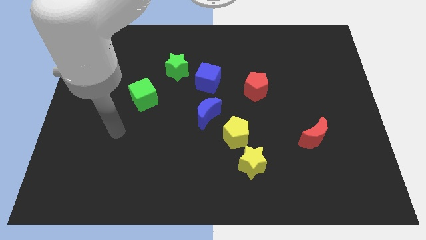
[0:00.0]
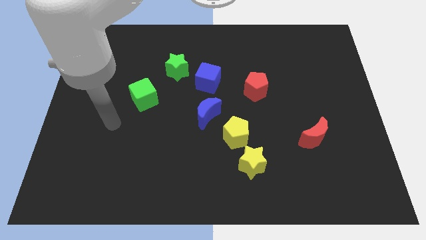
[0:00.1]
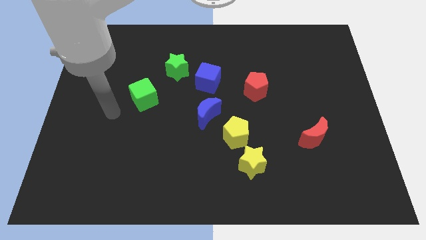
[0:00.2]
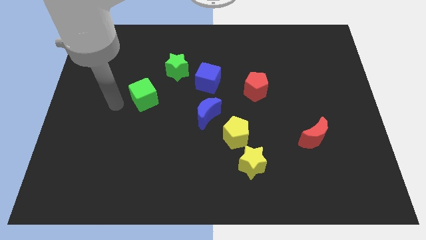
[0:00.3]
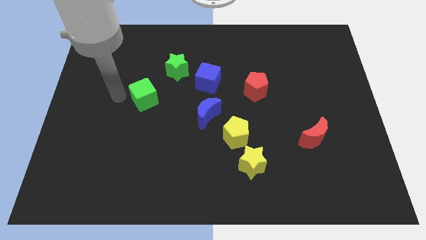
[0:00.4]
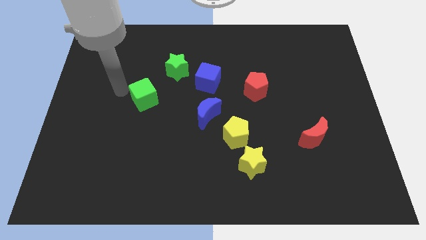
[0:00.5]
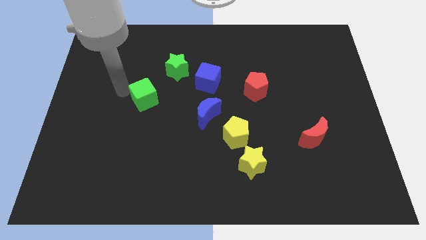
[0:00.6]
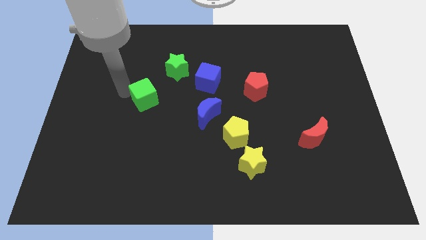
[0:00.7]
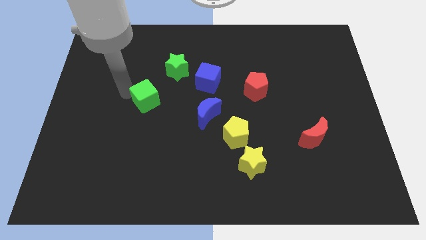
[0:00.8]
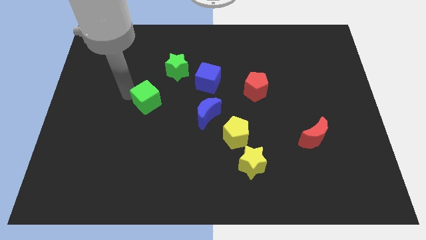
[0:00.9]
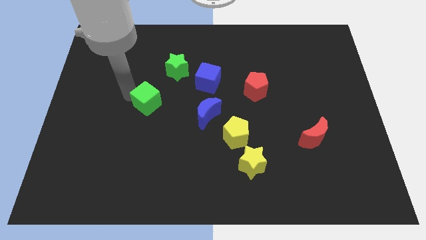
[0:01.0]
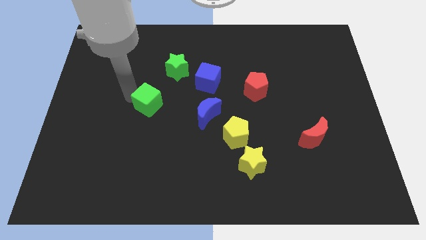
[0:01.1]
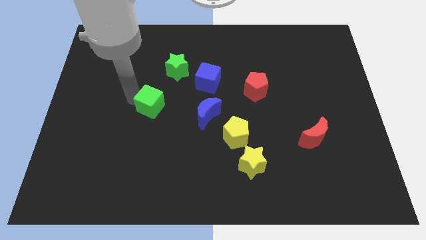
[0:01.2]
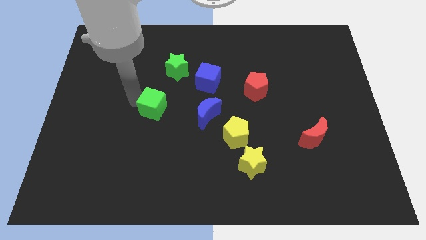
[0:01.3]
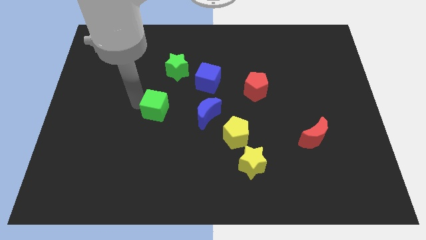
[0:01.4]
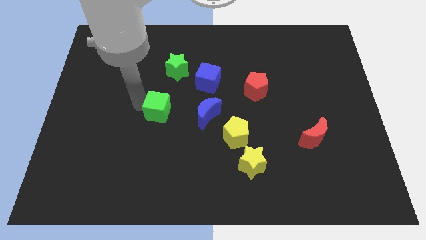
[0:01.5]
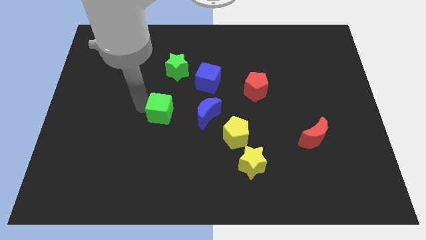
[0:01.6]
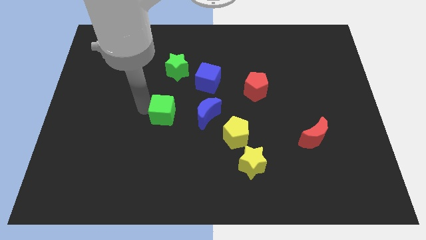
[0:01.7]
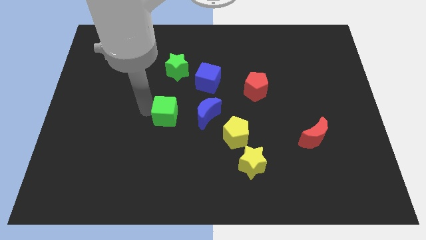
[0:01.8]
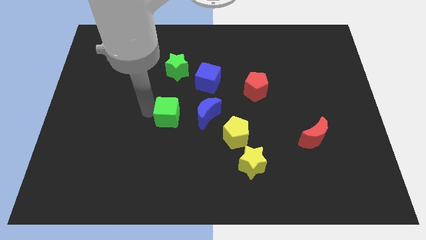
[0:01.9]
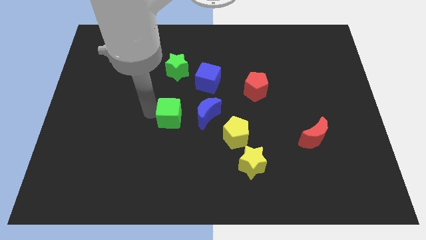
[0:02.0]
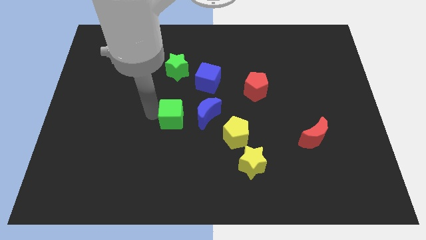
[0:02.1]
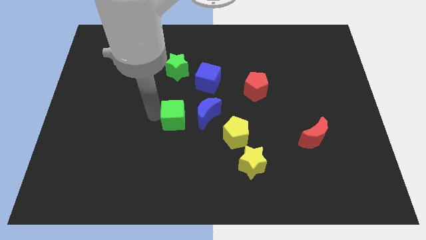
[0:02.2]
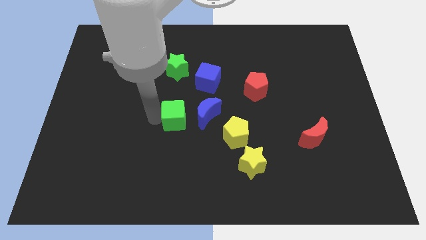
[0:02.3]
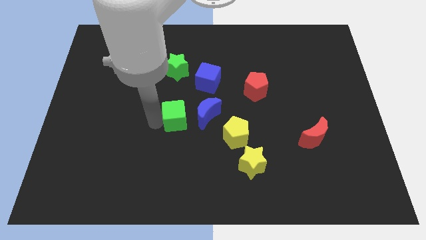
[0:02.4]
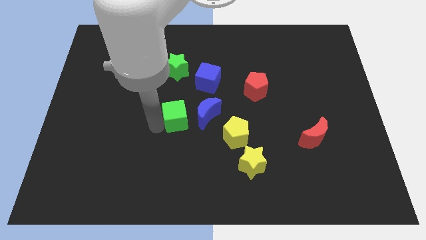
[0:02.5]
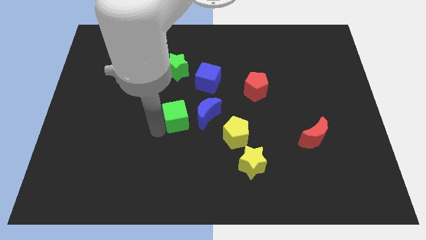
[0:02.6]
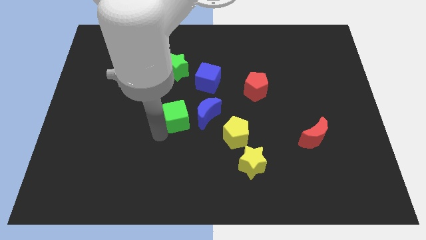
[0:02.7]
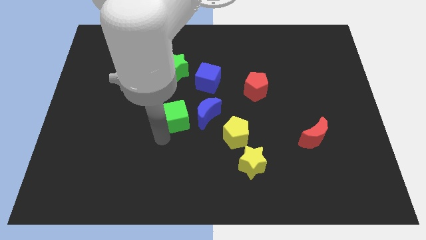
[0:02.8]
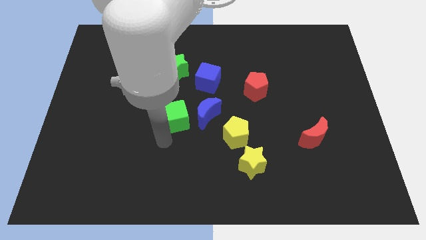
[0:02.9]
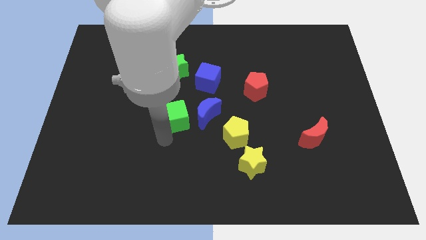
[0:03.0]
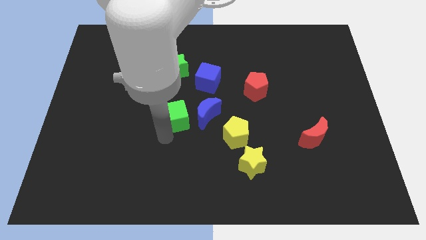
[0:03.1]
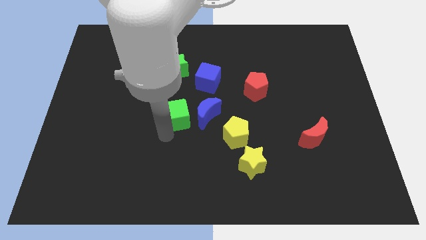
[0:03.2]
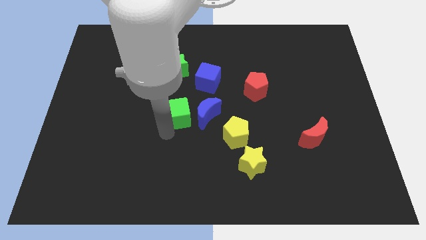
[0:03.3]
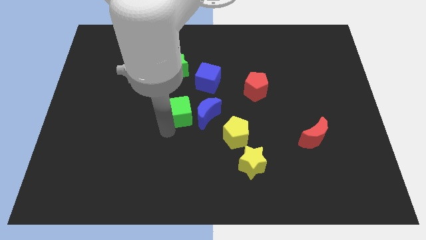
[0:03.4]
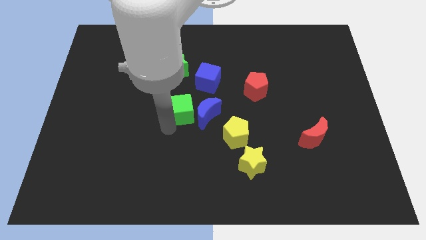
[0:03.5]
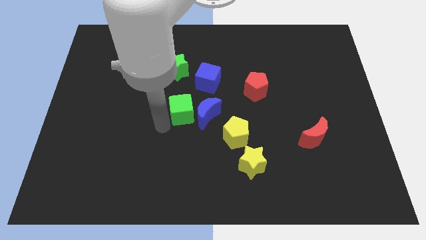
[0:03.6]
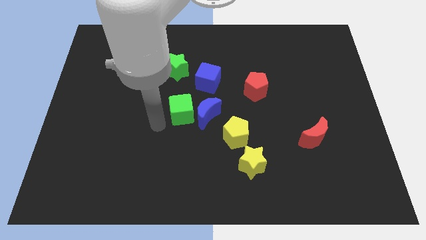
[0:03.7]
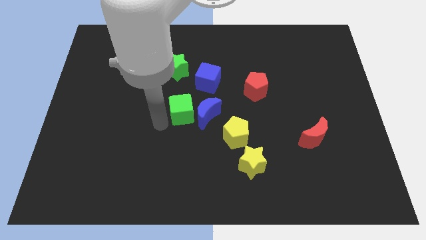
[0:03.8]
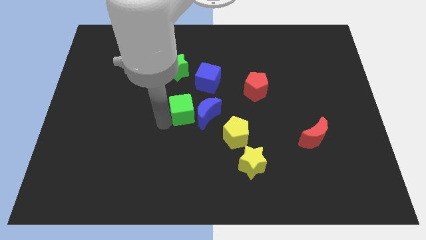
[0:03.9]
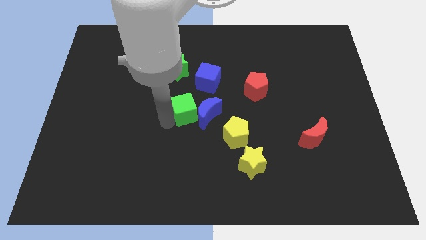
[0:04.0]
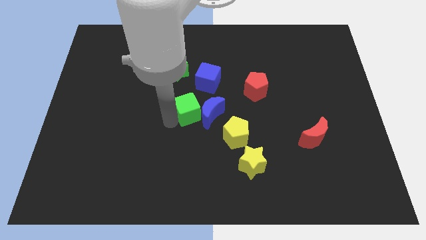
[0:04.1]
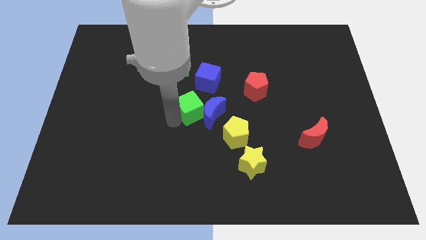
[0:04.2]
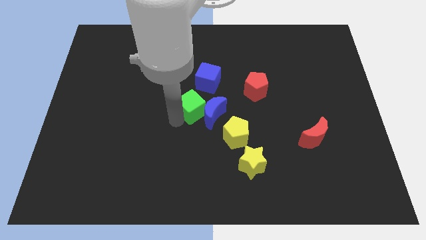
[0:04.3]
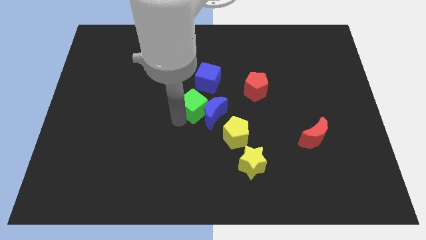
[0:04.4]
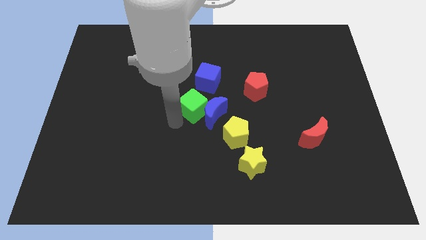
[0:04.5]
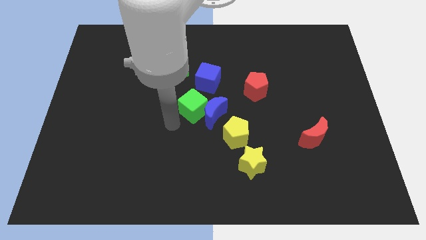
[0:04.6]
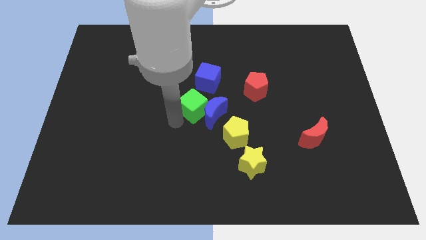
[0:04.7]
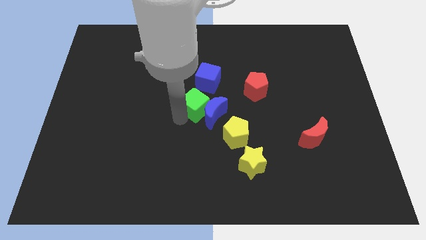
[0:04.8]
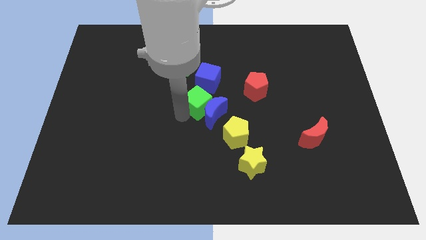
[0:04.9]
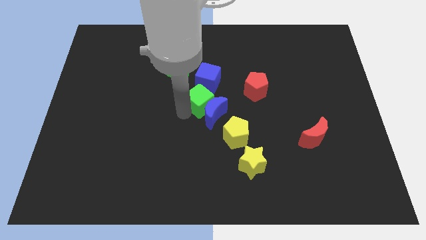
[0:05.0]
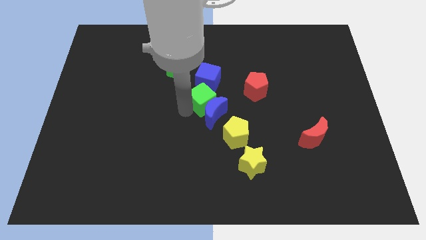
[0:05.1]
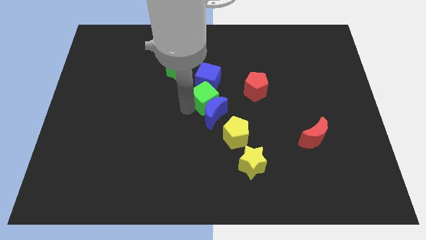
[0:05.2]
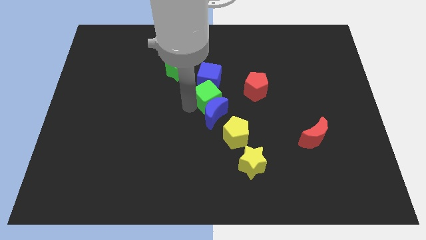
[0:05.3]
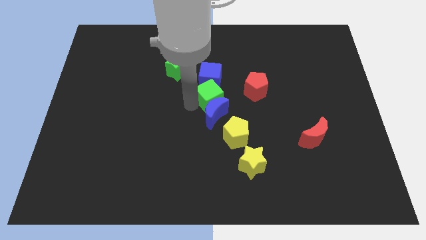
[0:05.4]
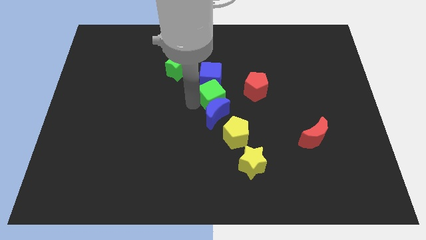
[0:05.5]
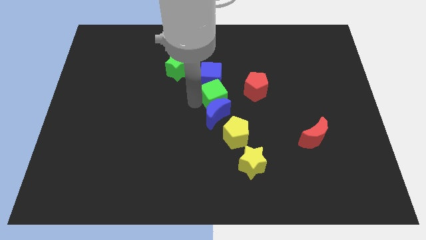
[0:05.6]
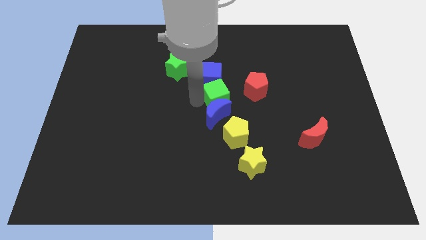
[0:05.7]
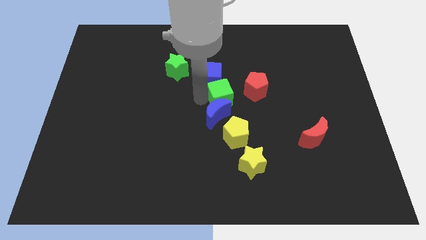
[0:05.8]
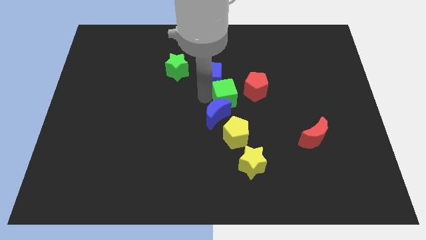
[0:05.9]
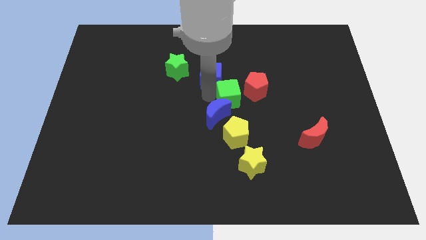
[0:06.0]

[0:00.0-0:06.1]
slide the green cube to the right

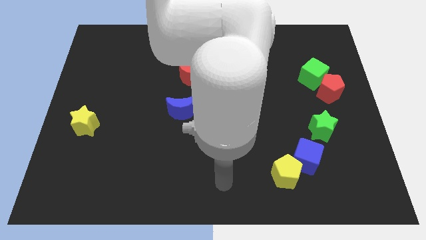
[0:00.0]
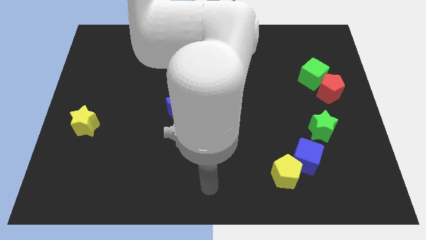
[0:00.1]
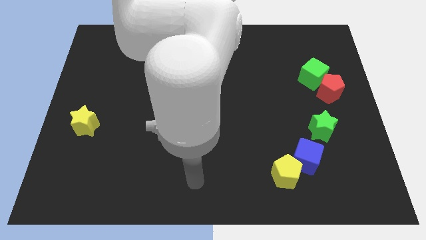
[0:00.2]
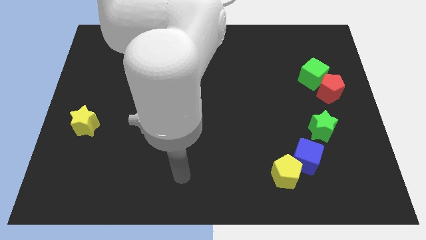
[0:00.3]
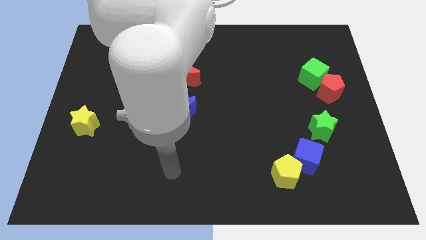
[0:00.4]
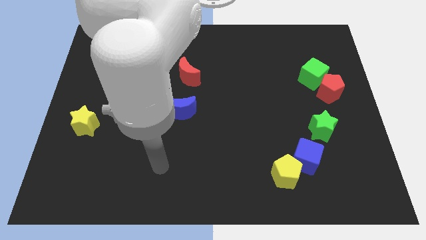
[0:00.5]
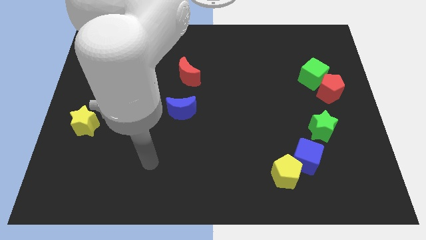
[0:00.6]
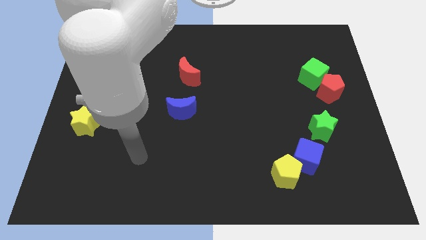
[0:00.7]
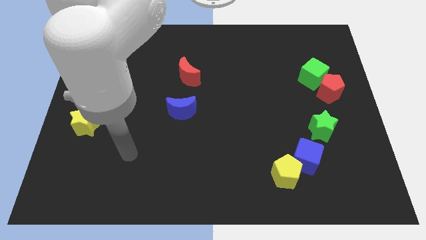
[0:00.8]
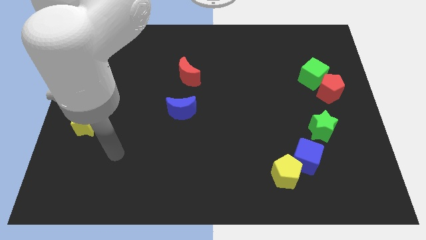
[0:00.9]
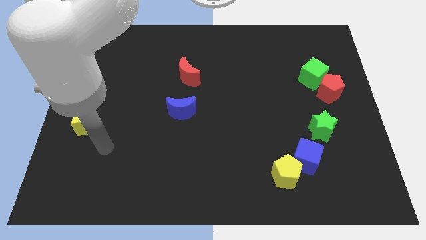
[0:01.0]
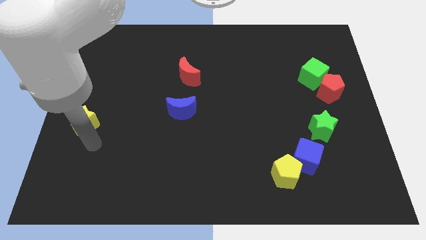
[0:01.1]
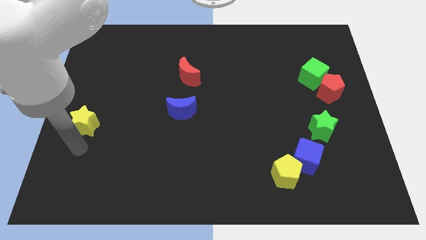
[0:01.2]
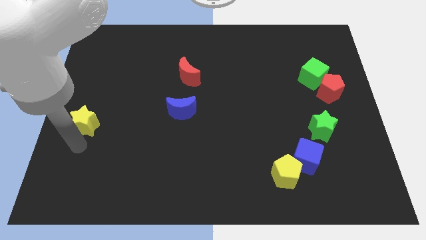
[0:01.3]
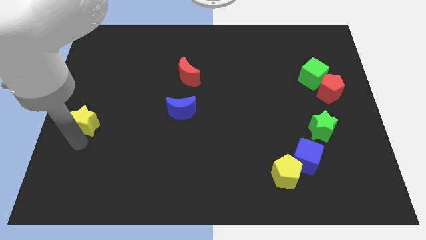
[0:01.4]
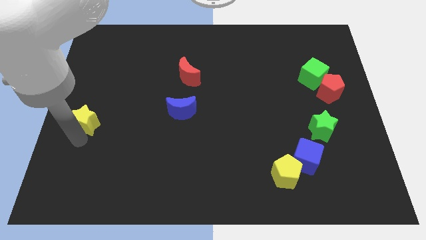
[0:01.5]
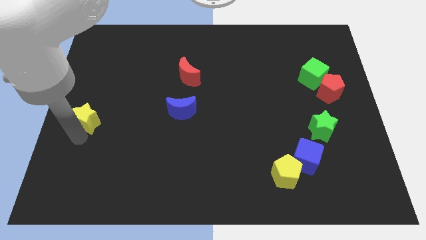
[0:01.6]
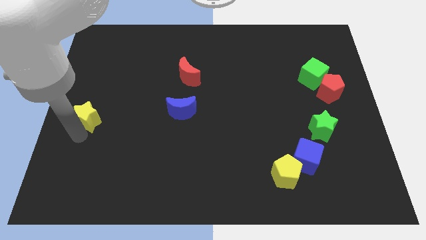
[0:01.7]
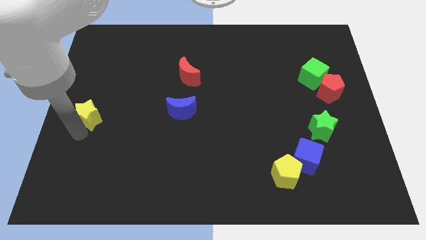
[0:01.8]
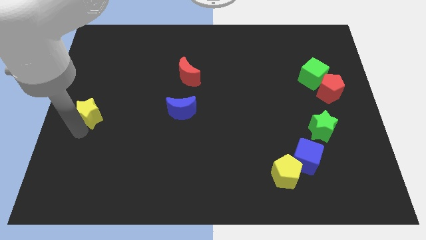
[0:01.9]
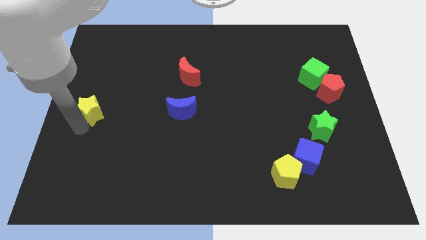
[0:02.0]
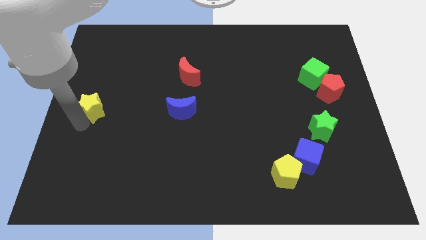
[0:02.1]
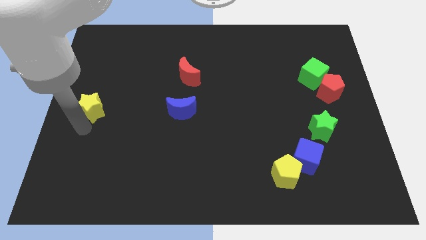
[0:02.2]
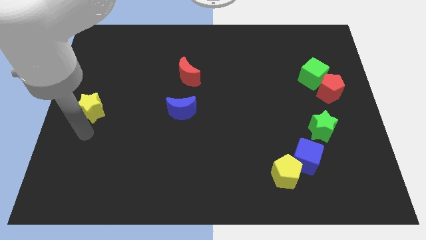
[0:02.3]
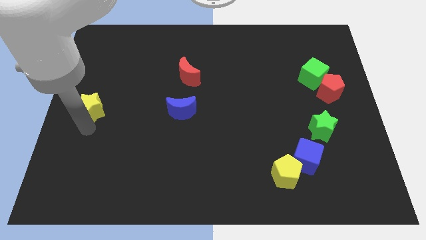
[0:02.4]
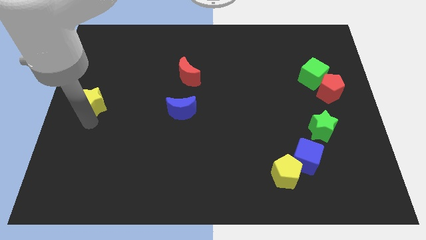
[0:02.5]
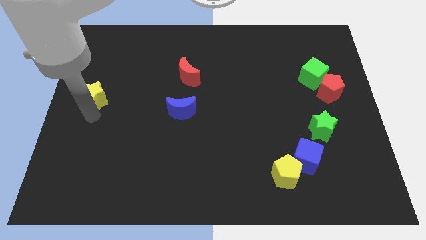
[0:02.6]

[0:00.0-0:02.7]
push the yellow star somewhat up
